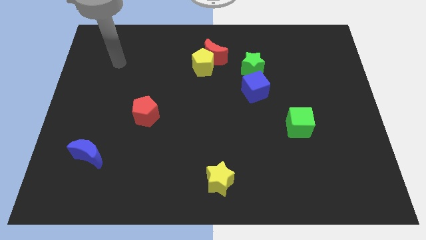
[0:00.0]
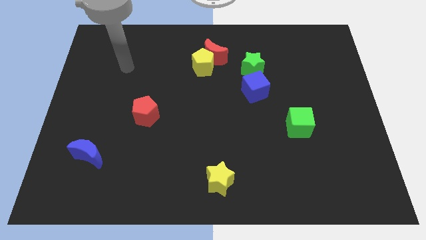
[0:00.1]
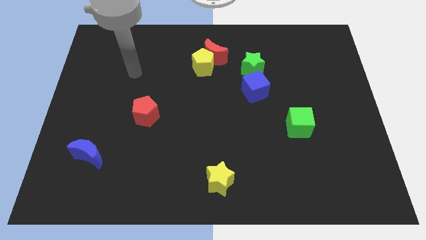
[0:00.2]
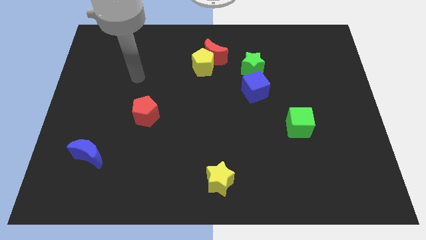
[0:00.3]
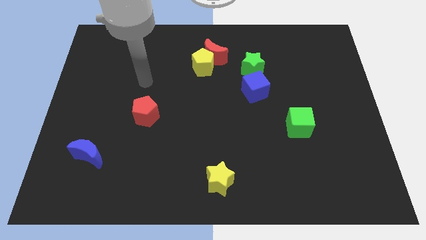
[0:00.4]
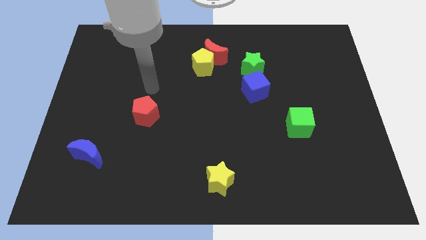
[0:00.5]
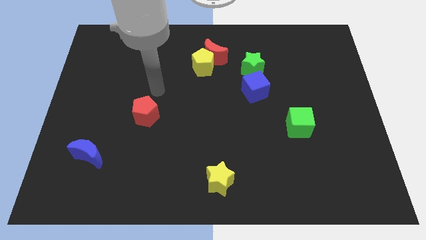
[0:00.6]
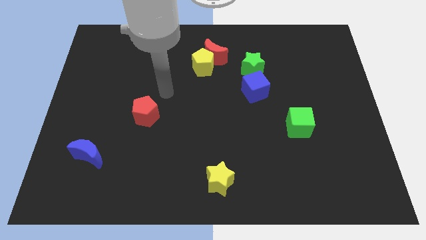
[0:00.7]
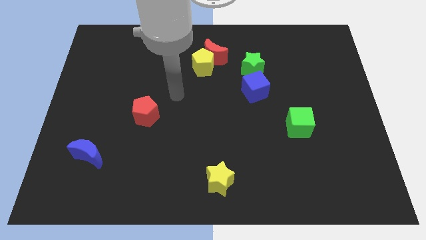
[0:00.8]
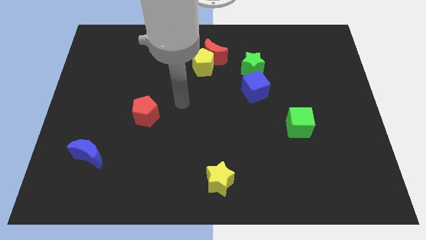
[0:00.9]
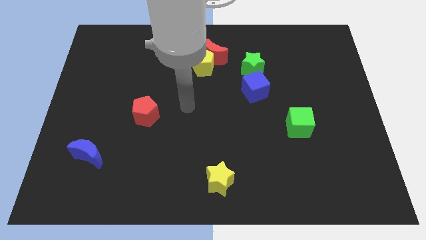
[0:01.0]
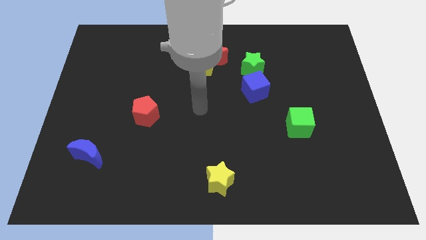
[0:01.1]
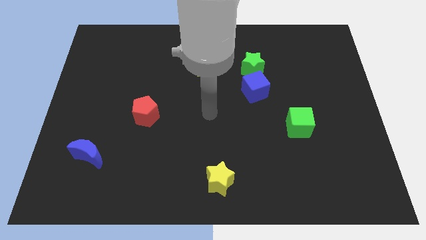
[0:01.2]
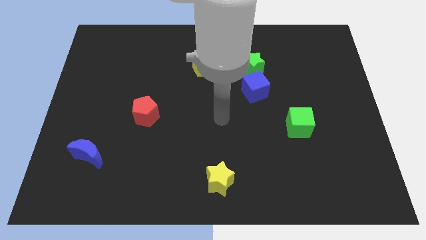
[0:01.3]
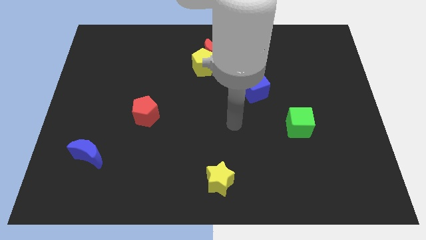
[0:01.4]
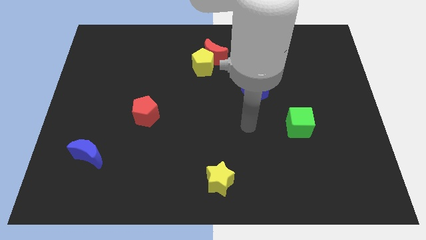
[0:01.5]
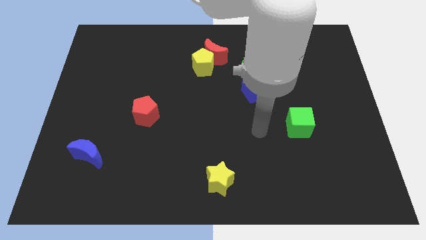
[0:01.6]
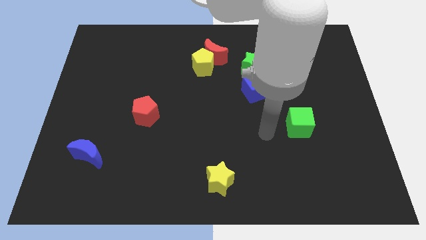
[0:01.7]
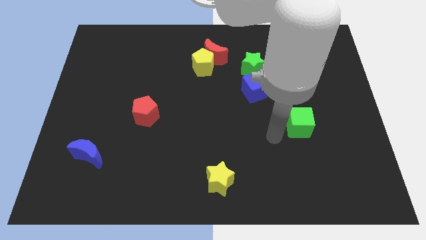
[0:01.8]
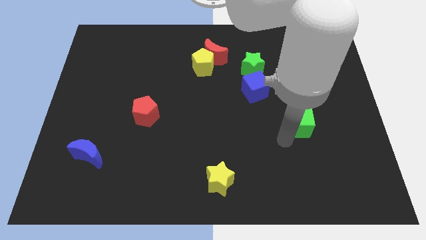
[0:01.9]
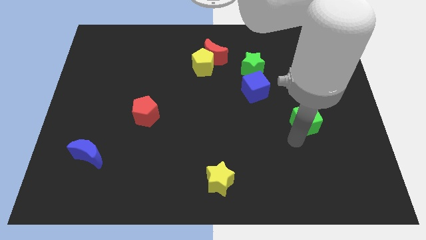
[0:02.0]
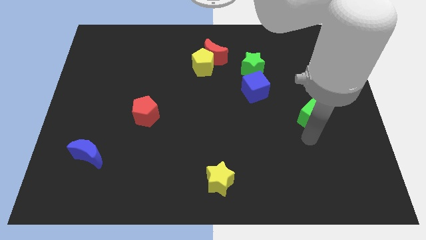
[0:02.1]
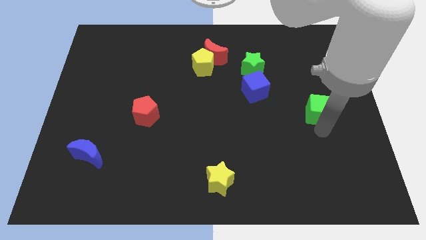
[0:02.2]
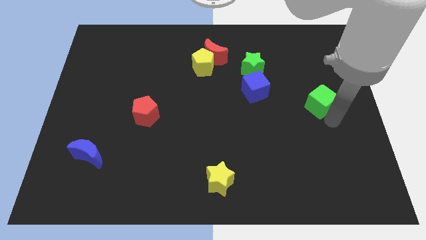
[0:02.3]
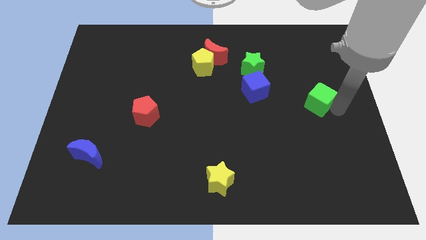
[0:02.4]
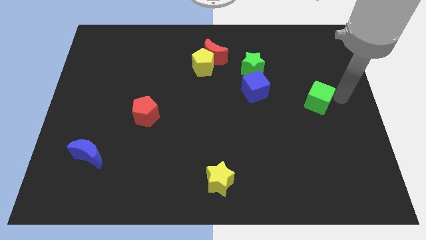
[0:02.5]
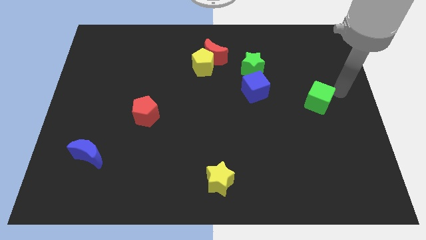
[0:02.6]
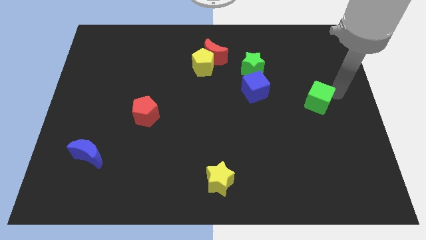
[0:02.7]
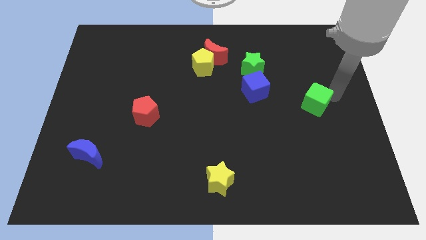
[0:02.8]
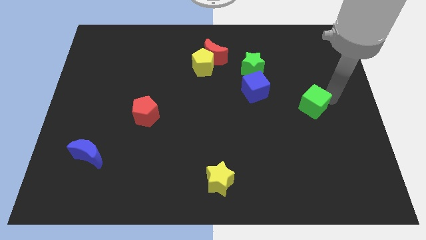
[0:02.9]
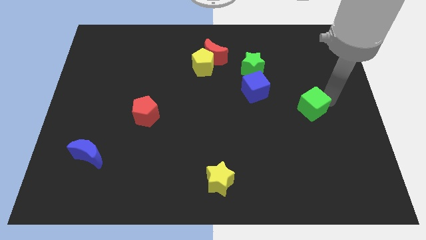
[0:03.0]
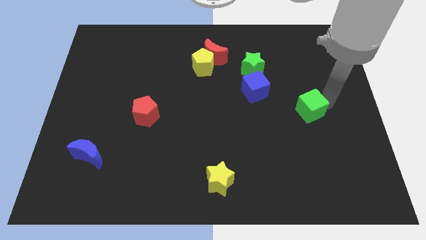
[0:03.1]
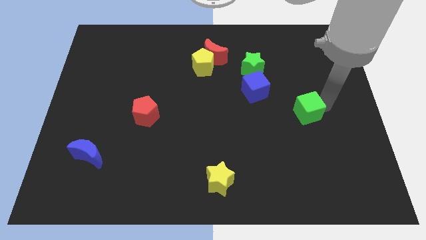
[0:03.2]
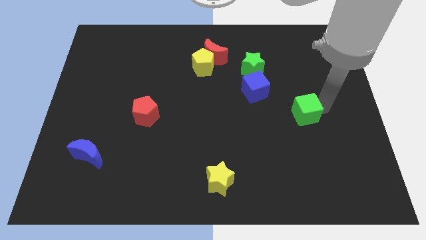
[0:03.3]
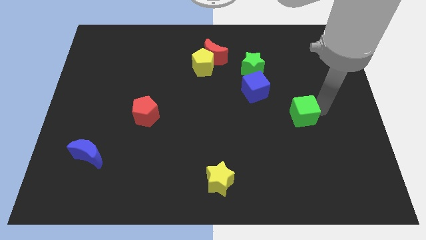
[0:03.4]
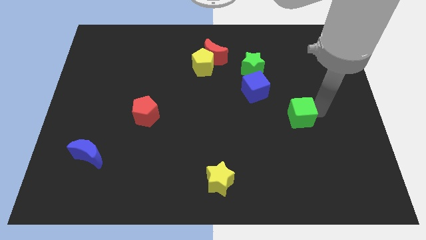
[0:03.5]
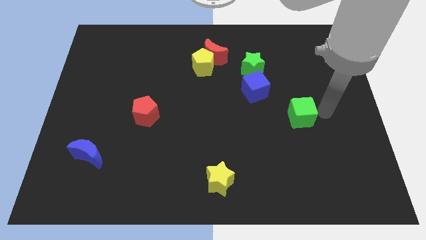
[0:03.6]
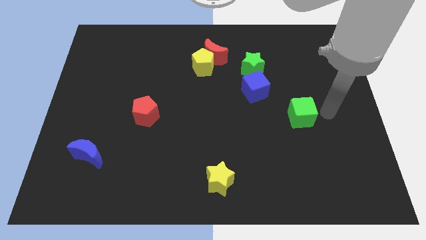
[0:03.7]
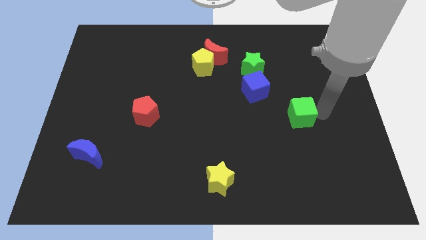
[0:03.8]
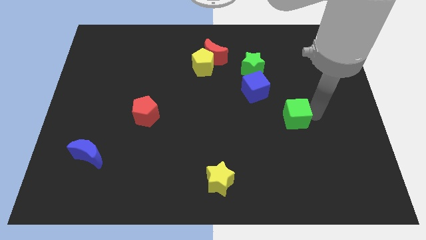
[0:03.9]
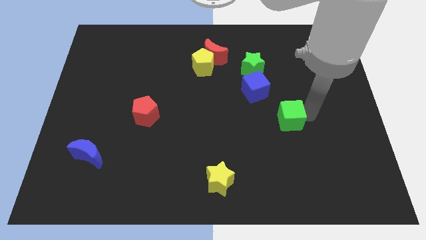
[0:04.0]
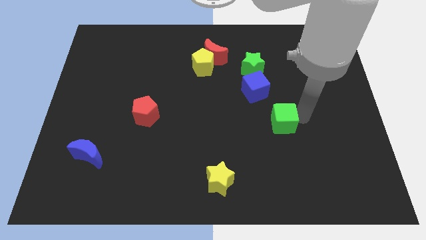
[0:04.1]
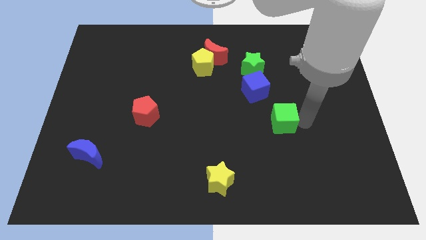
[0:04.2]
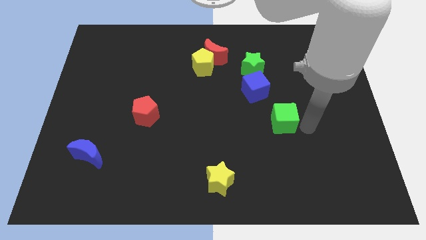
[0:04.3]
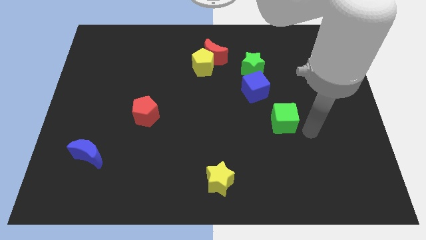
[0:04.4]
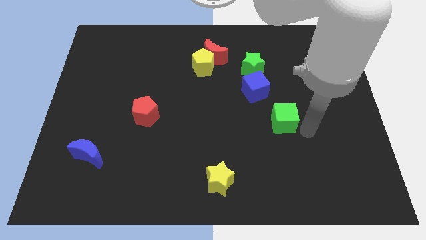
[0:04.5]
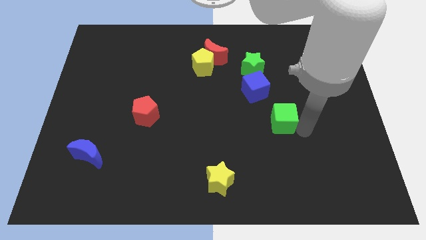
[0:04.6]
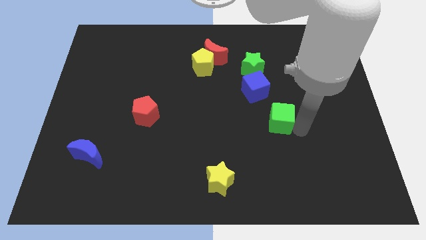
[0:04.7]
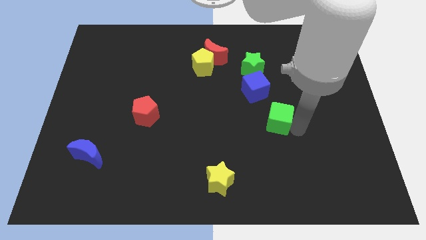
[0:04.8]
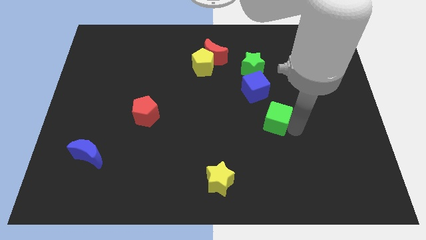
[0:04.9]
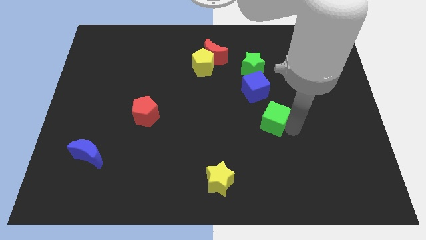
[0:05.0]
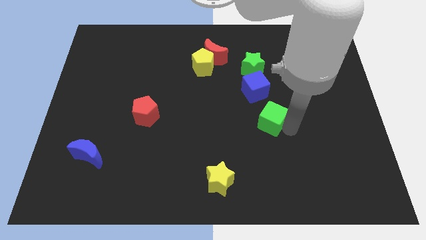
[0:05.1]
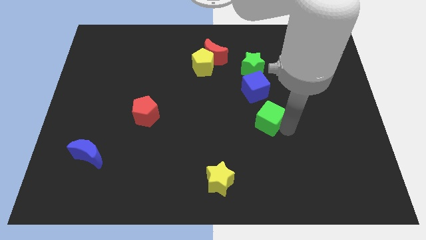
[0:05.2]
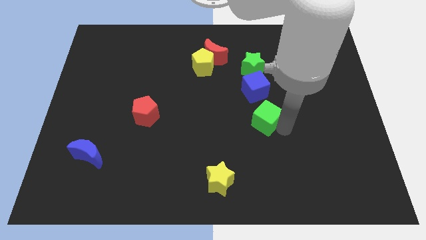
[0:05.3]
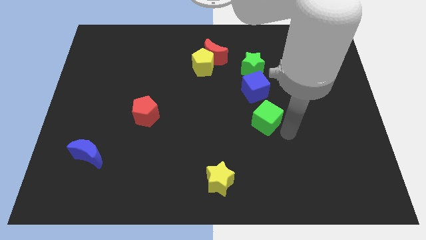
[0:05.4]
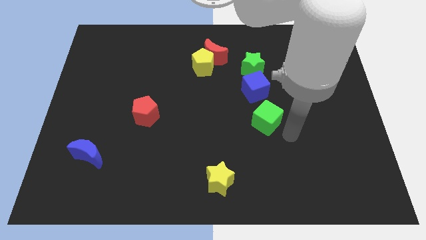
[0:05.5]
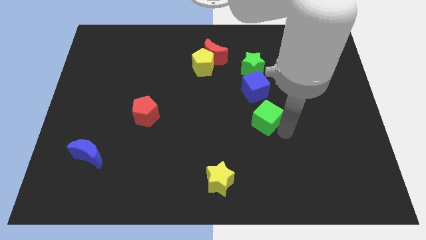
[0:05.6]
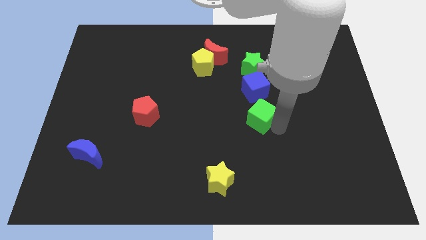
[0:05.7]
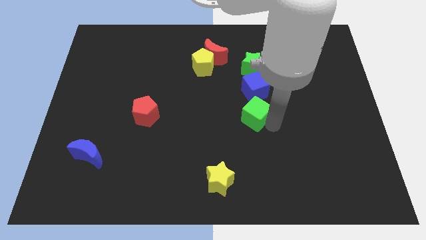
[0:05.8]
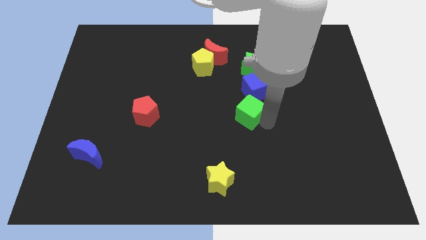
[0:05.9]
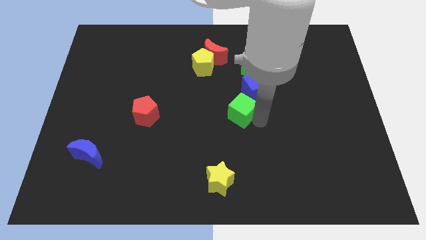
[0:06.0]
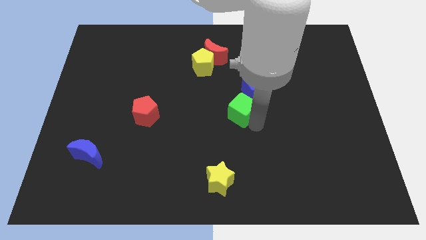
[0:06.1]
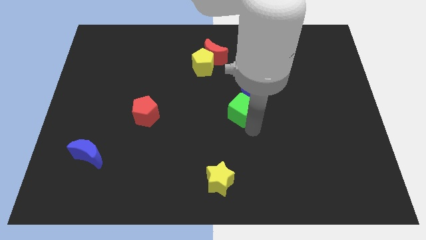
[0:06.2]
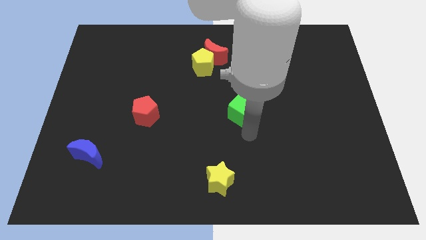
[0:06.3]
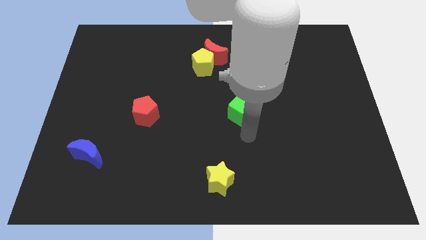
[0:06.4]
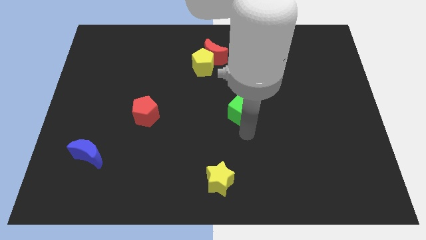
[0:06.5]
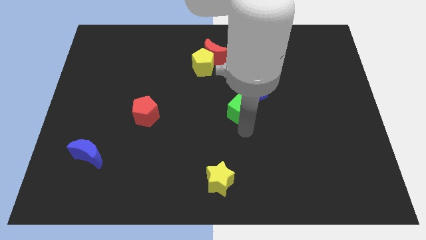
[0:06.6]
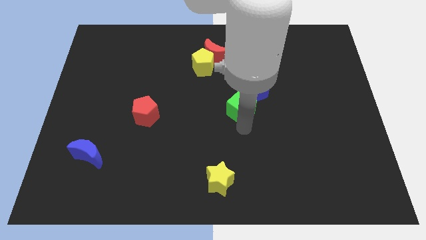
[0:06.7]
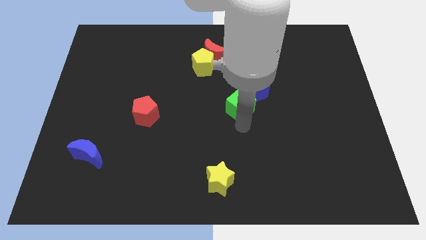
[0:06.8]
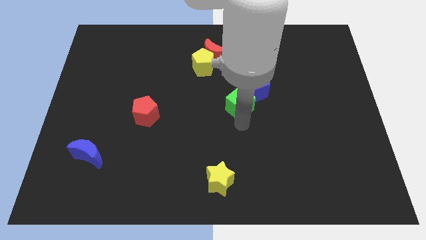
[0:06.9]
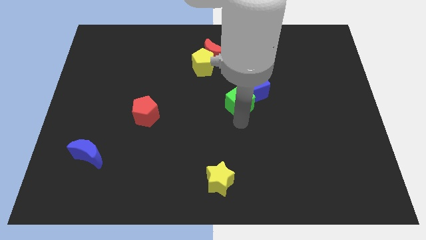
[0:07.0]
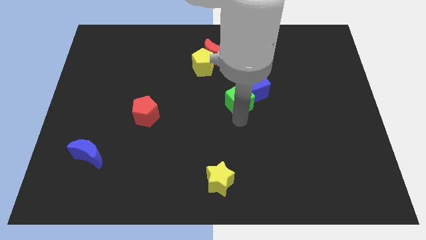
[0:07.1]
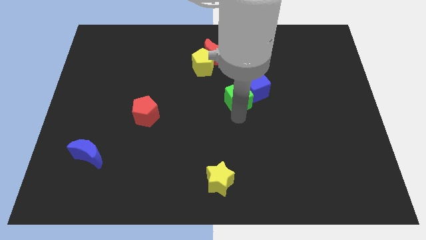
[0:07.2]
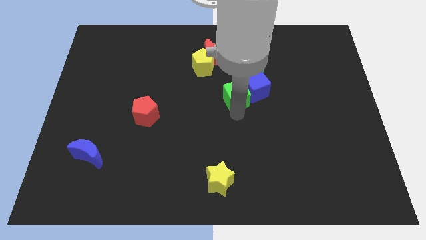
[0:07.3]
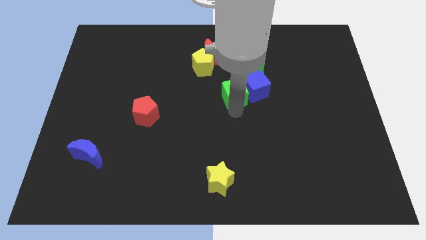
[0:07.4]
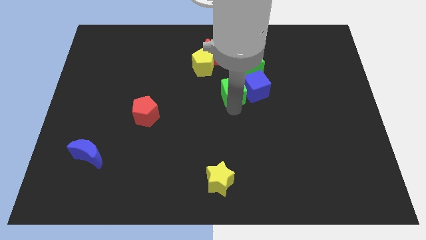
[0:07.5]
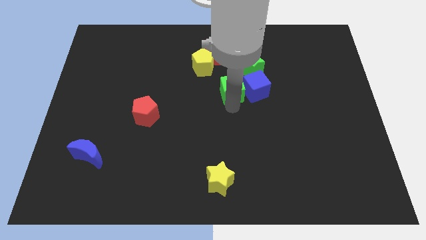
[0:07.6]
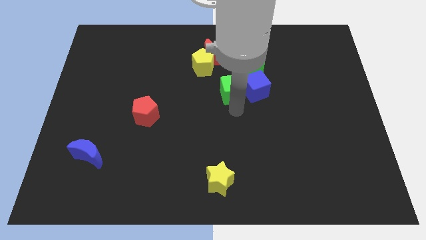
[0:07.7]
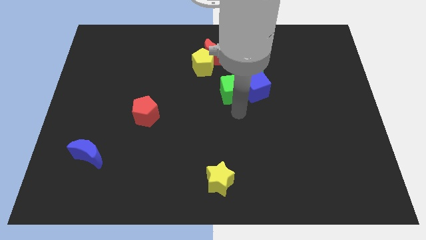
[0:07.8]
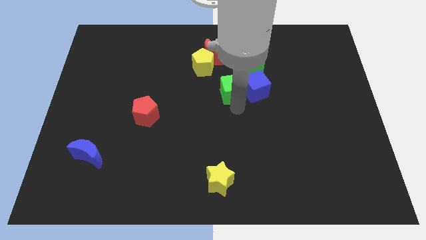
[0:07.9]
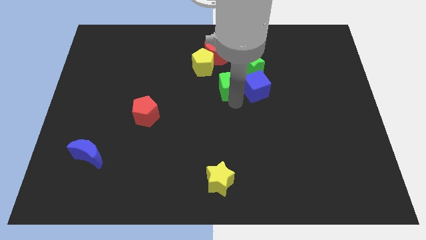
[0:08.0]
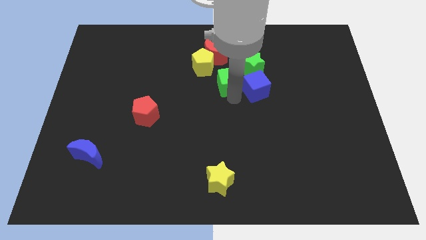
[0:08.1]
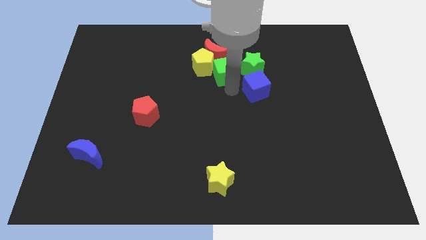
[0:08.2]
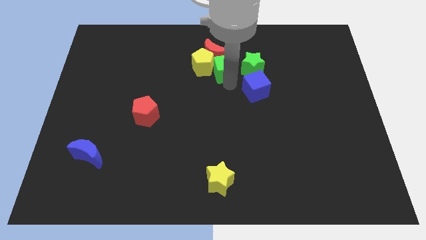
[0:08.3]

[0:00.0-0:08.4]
move the green cube next to the red moon
